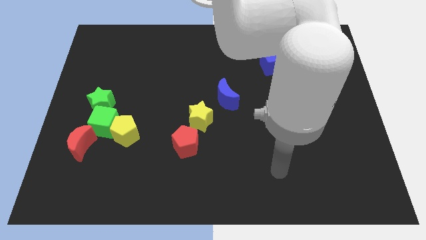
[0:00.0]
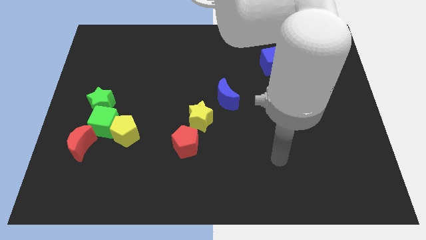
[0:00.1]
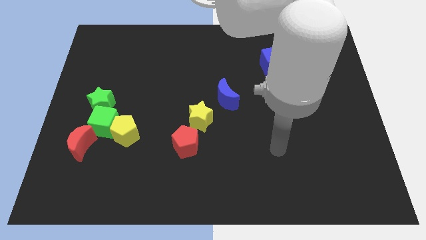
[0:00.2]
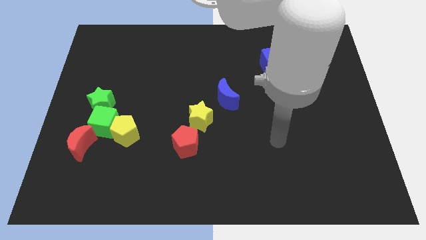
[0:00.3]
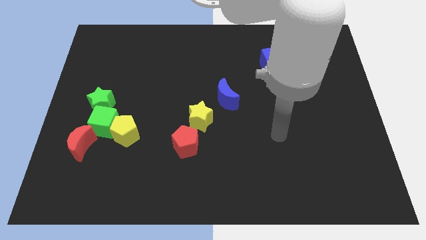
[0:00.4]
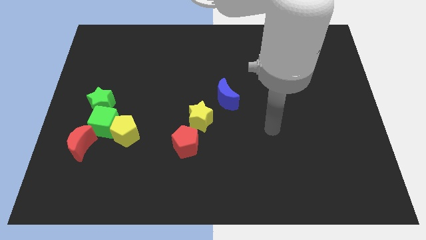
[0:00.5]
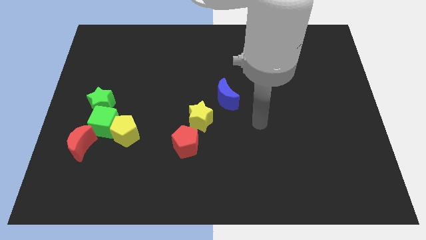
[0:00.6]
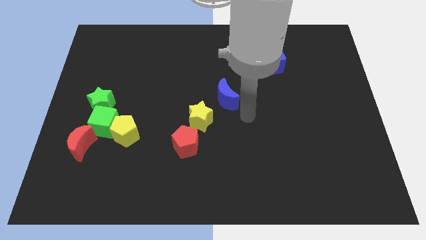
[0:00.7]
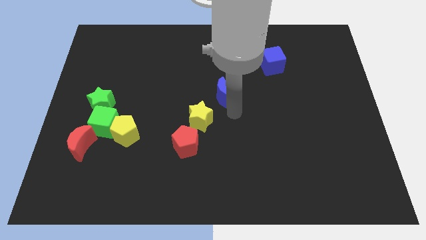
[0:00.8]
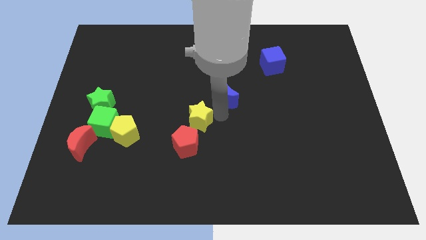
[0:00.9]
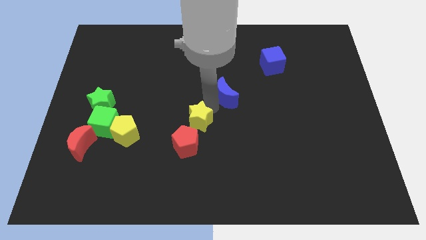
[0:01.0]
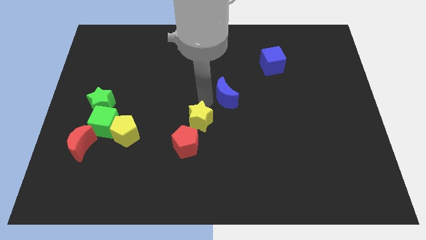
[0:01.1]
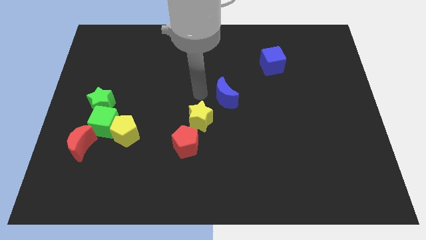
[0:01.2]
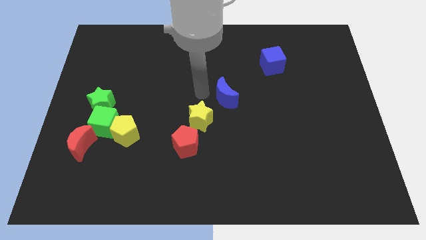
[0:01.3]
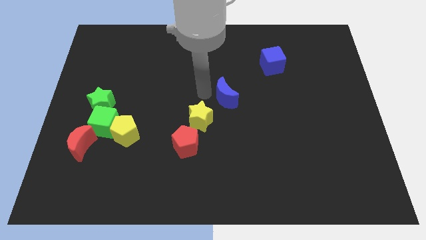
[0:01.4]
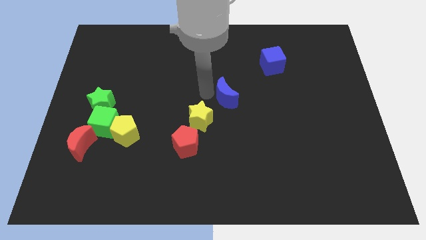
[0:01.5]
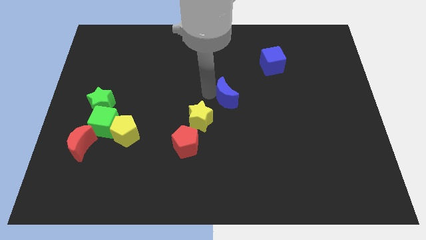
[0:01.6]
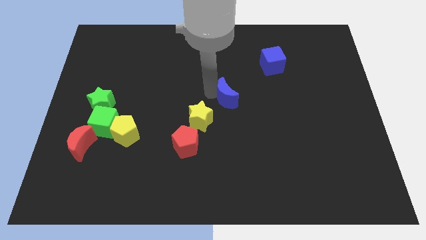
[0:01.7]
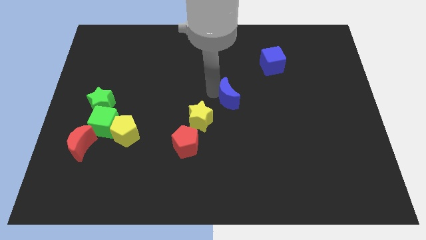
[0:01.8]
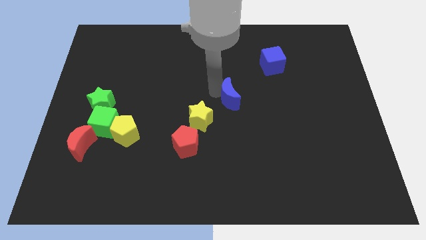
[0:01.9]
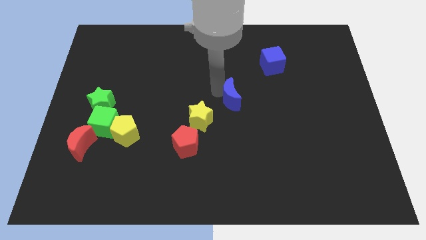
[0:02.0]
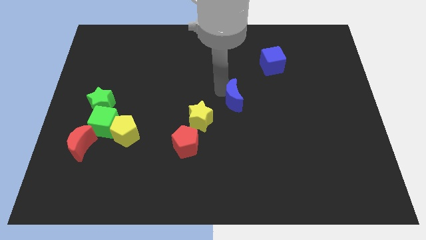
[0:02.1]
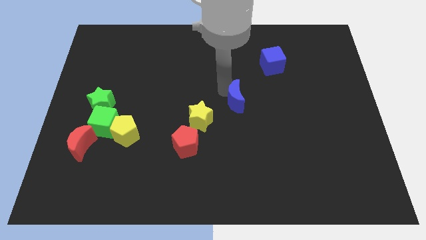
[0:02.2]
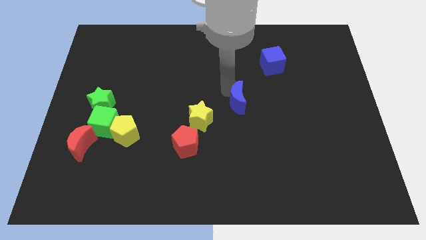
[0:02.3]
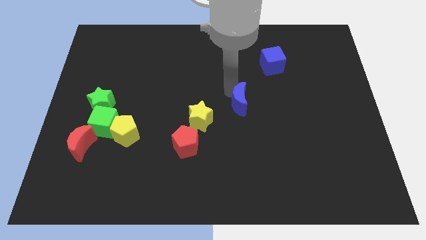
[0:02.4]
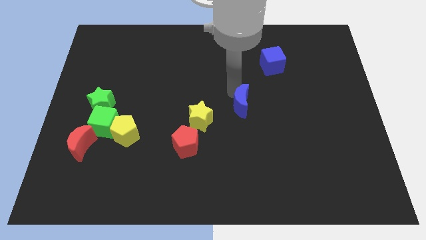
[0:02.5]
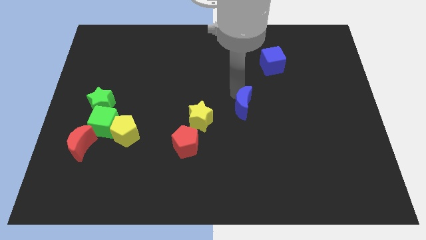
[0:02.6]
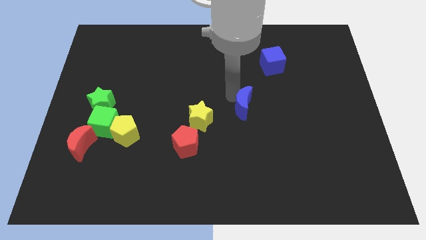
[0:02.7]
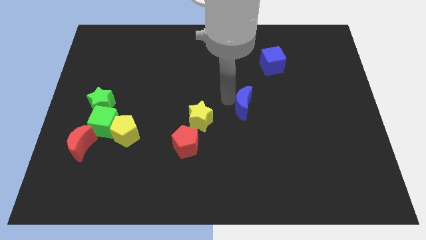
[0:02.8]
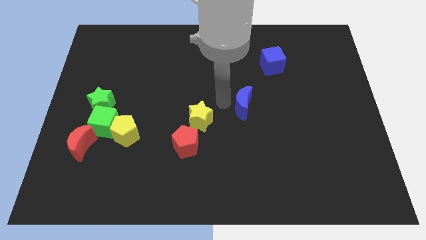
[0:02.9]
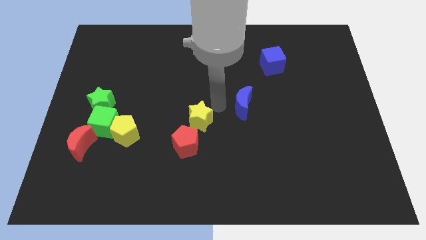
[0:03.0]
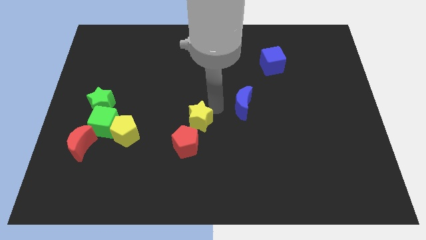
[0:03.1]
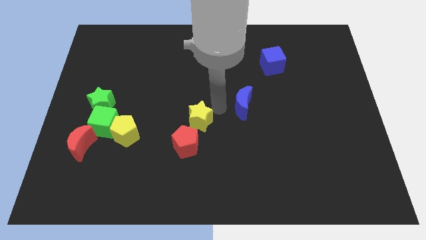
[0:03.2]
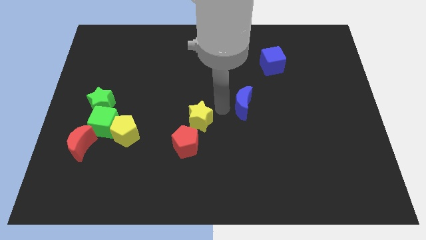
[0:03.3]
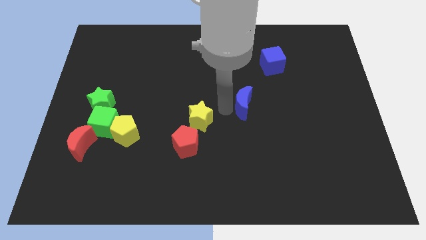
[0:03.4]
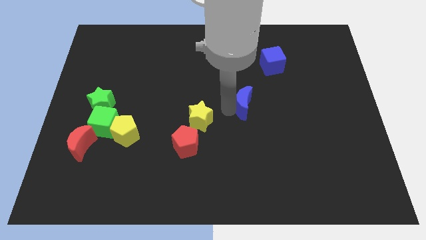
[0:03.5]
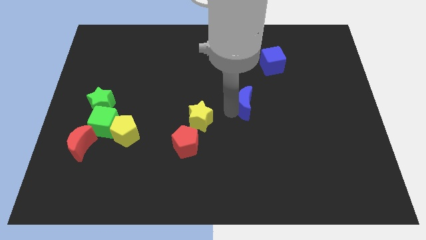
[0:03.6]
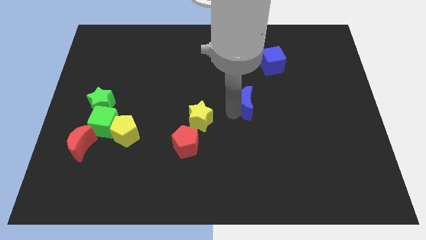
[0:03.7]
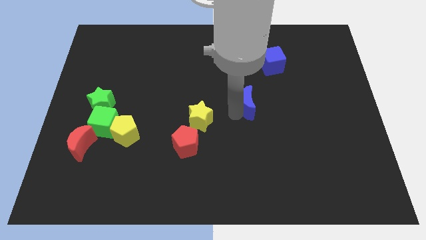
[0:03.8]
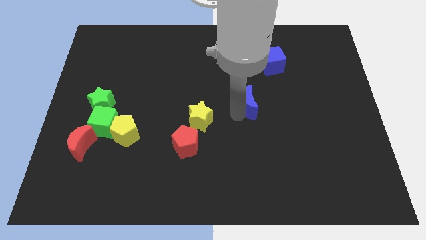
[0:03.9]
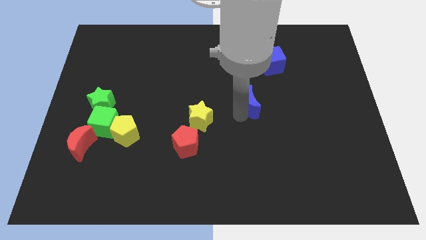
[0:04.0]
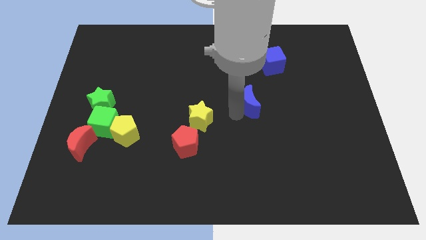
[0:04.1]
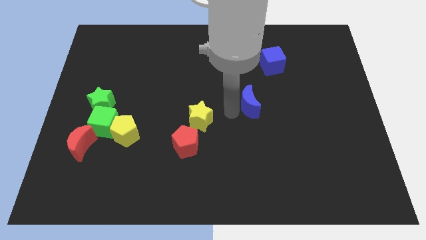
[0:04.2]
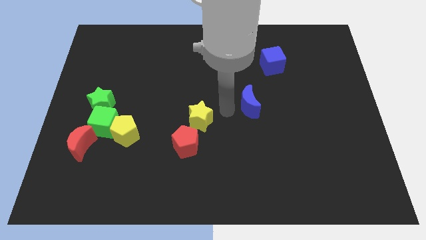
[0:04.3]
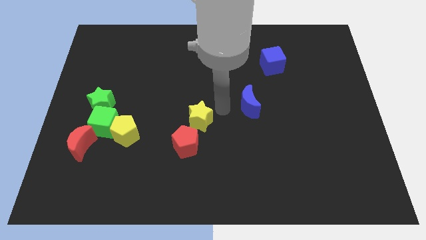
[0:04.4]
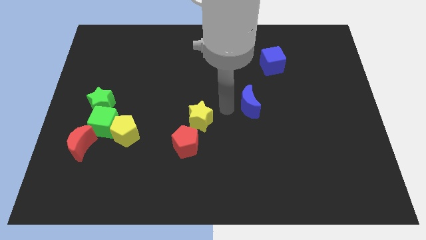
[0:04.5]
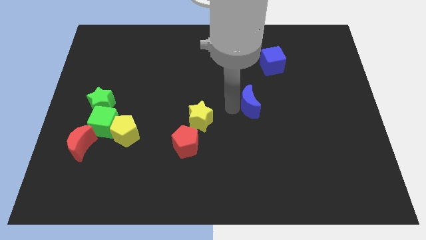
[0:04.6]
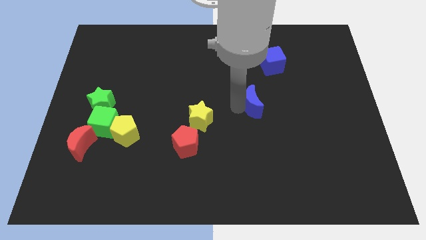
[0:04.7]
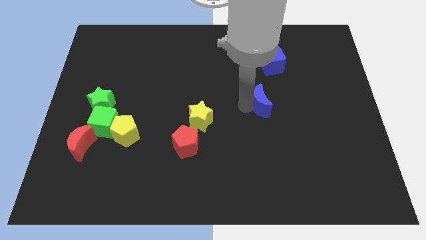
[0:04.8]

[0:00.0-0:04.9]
push the blue moon somewhat to the right

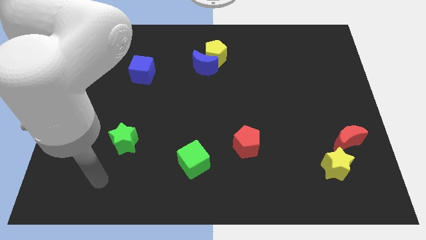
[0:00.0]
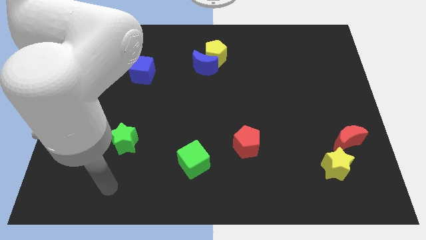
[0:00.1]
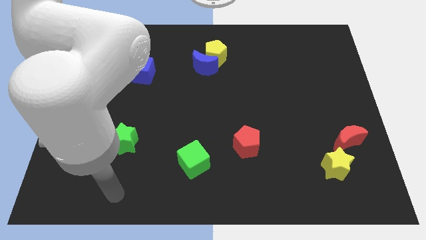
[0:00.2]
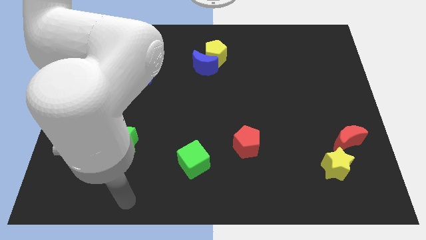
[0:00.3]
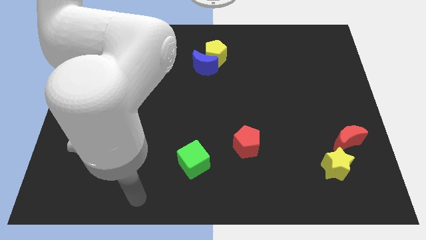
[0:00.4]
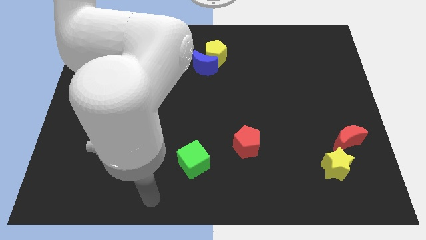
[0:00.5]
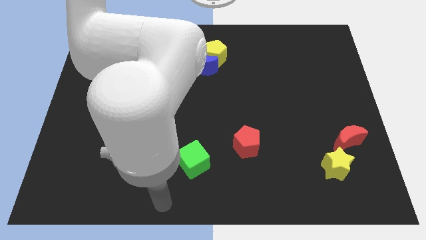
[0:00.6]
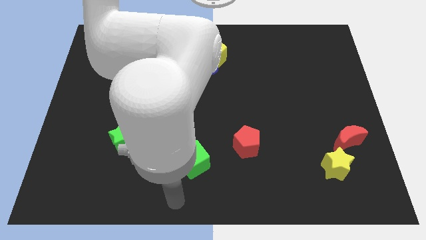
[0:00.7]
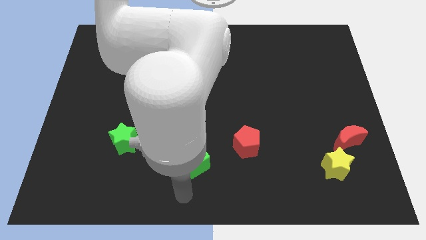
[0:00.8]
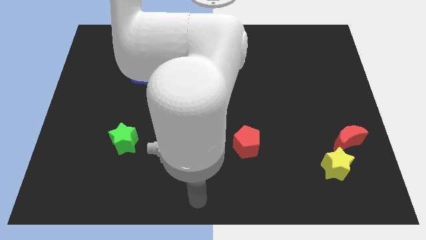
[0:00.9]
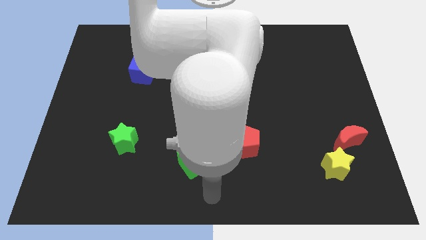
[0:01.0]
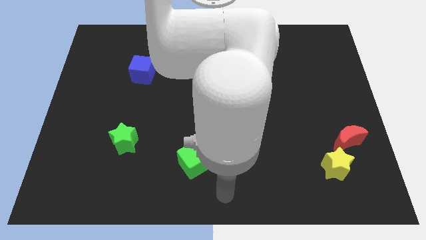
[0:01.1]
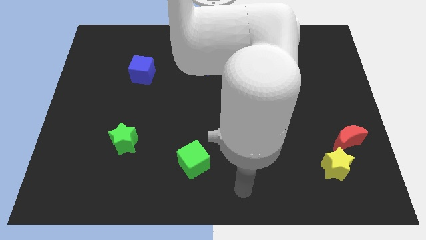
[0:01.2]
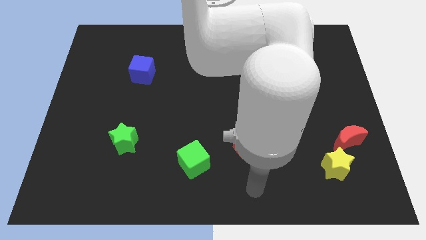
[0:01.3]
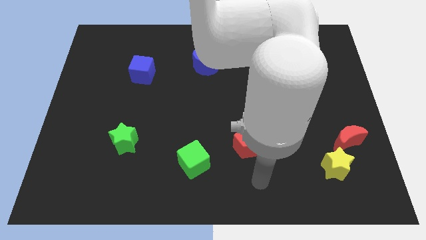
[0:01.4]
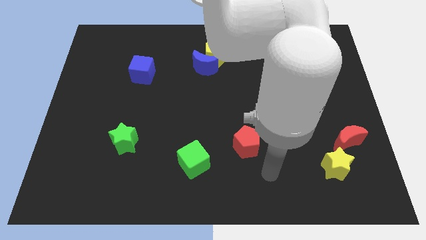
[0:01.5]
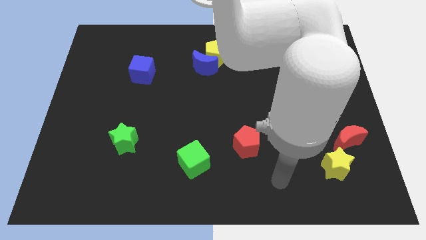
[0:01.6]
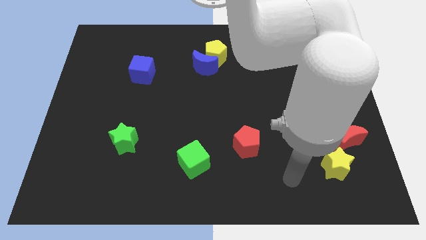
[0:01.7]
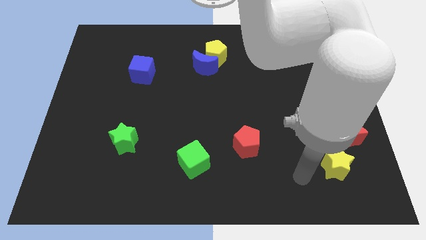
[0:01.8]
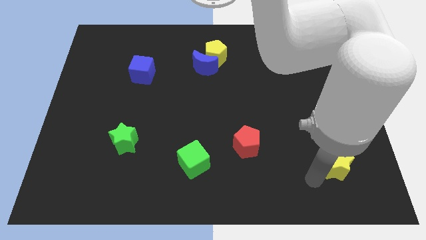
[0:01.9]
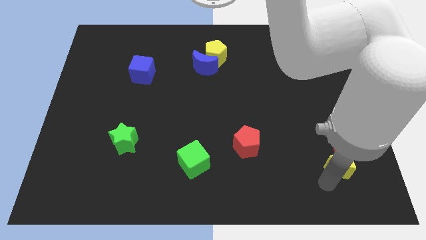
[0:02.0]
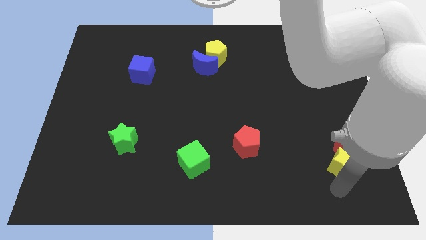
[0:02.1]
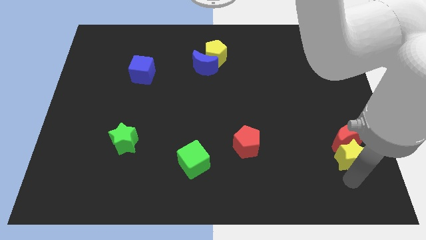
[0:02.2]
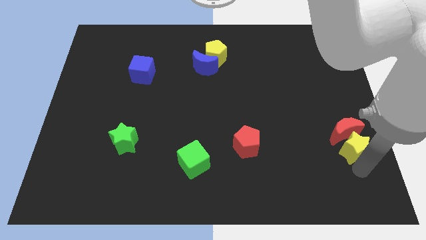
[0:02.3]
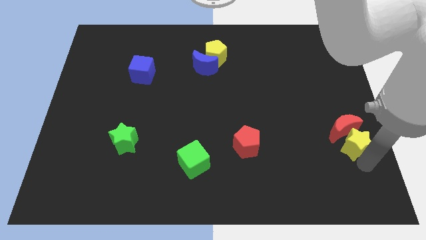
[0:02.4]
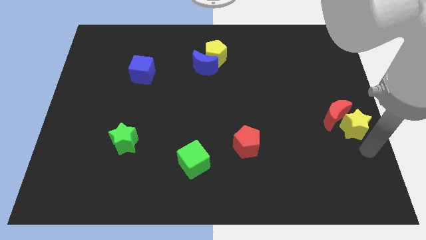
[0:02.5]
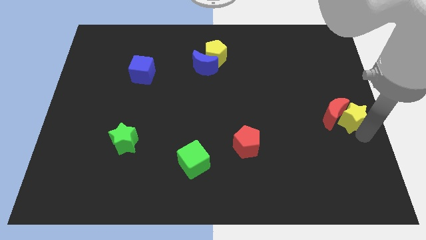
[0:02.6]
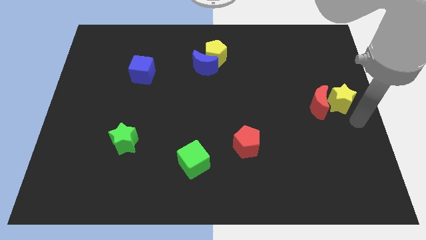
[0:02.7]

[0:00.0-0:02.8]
slightly move the red moon diagonally upwards and to the left

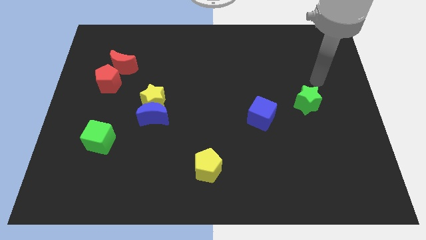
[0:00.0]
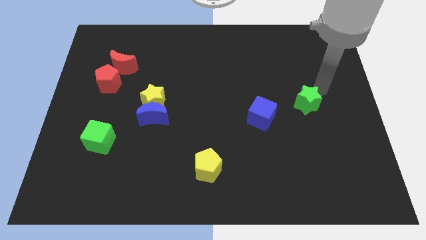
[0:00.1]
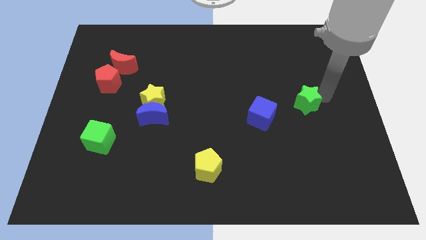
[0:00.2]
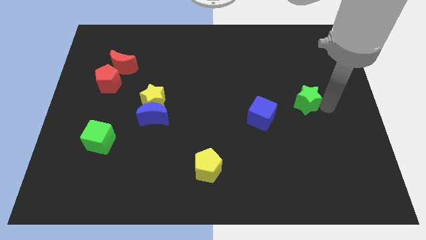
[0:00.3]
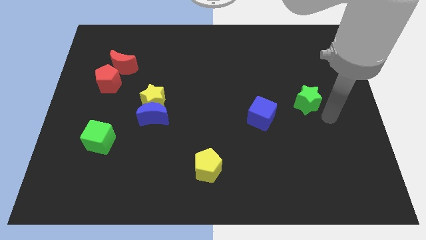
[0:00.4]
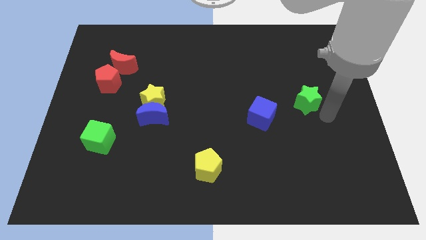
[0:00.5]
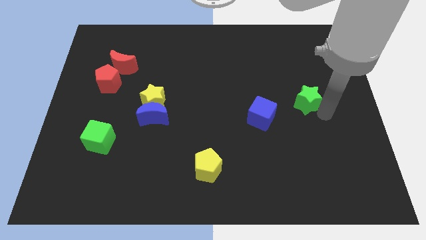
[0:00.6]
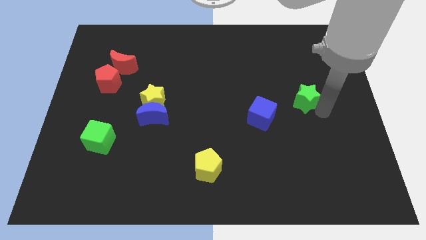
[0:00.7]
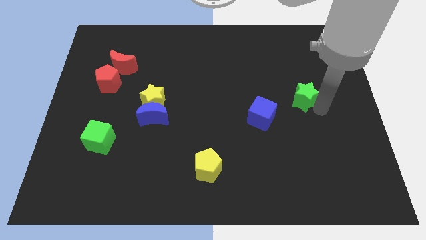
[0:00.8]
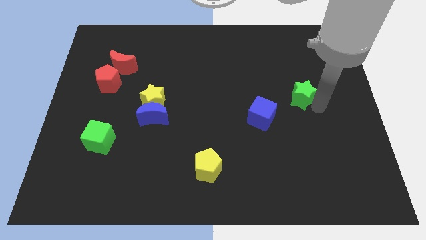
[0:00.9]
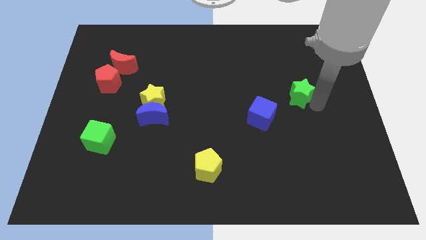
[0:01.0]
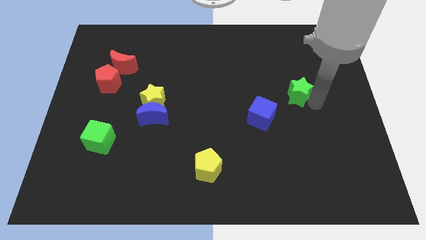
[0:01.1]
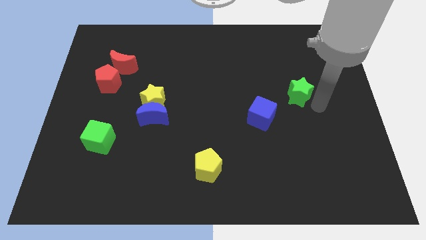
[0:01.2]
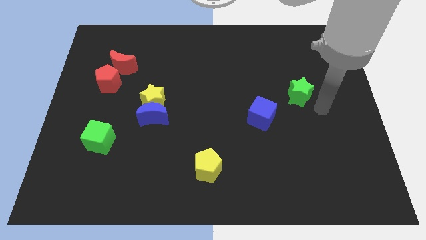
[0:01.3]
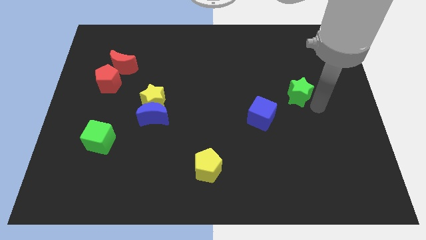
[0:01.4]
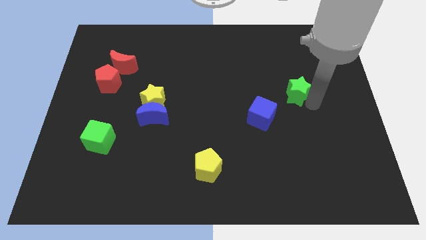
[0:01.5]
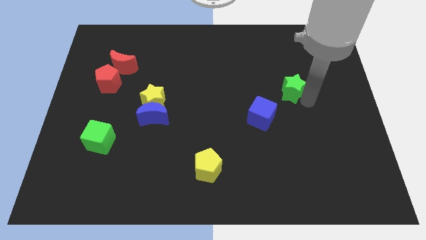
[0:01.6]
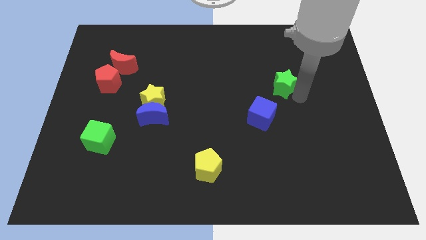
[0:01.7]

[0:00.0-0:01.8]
move the green star a little up and to the left diagonally
